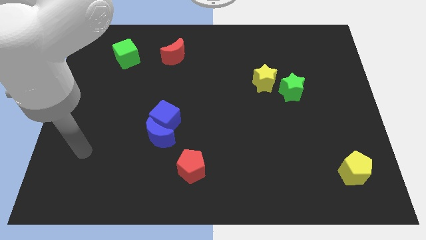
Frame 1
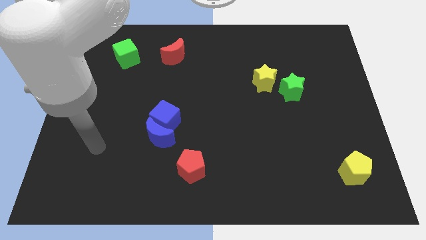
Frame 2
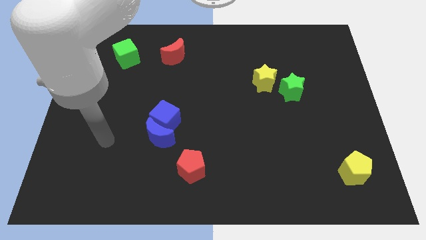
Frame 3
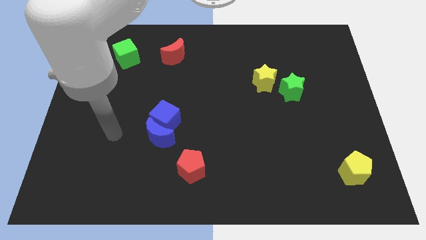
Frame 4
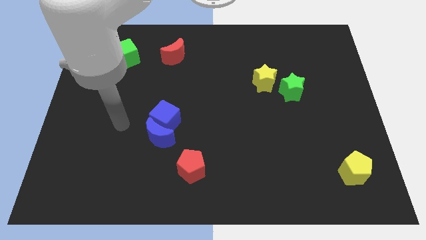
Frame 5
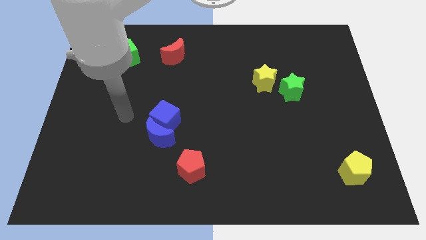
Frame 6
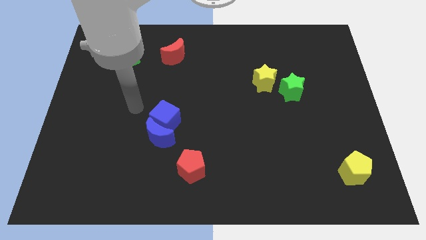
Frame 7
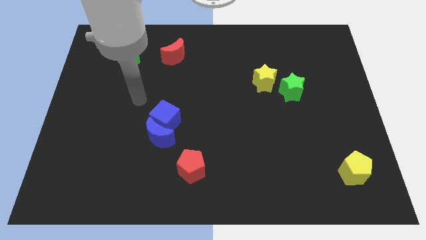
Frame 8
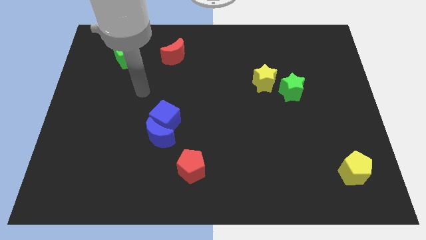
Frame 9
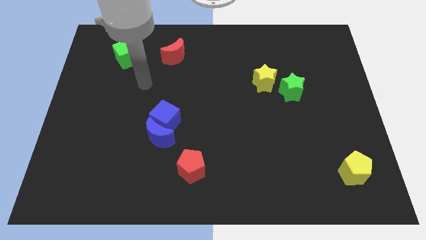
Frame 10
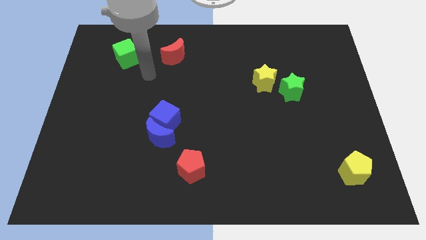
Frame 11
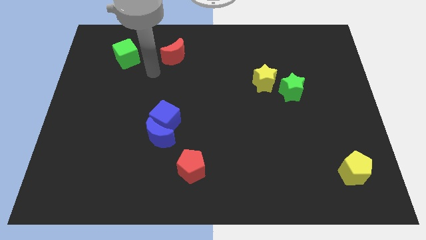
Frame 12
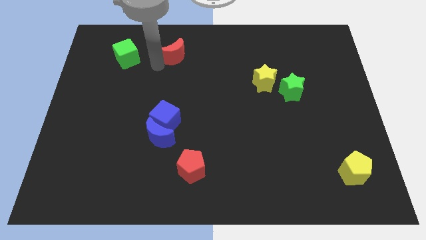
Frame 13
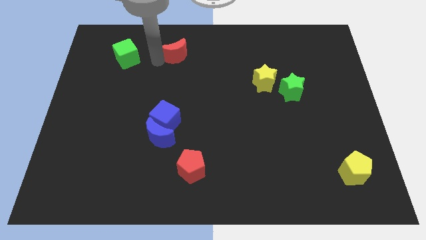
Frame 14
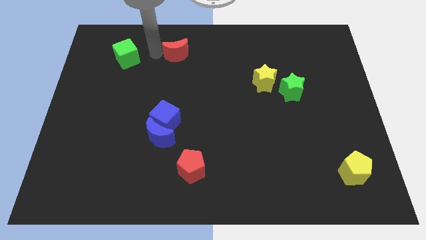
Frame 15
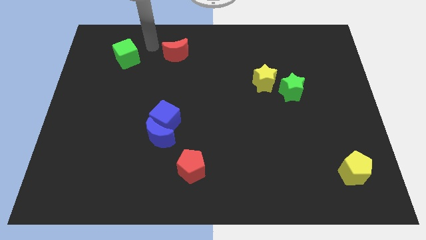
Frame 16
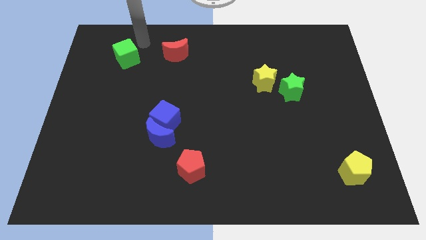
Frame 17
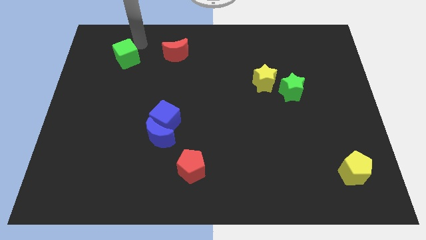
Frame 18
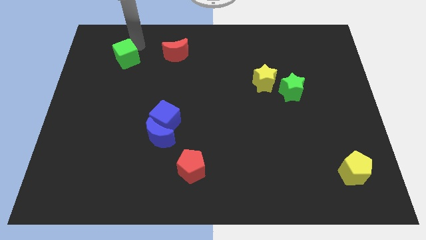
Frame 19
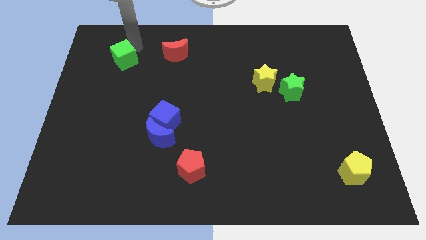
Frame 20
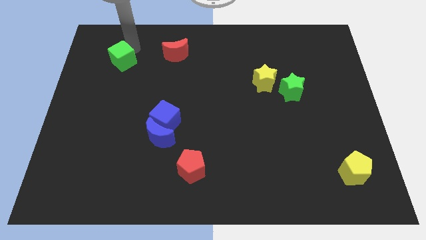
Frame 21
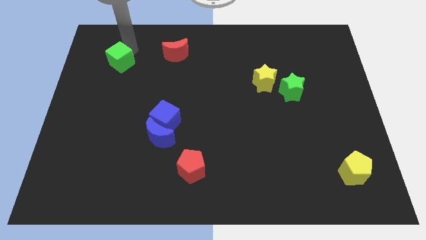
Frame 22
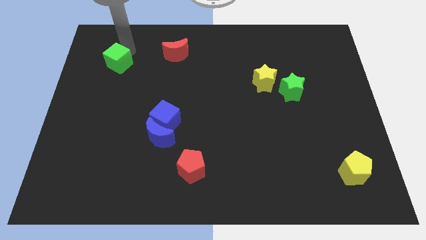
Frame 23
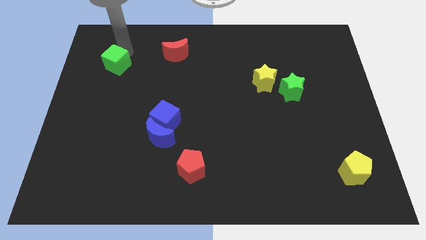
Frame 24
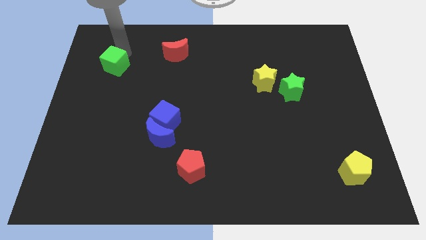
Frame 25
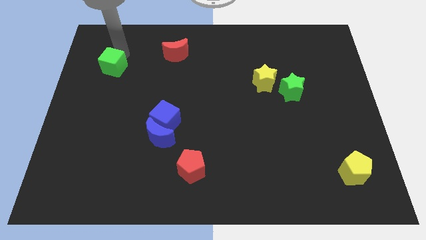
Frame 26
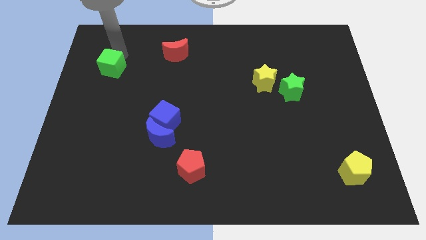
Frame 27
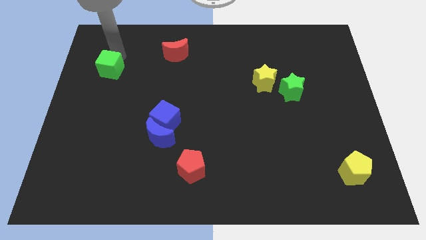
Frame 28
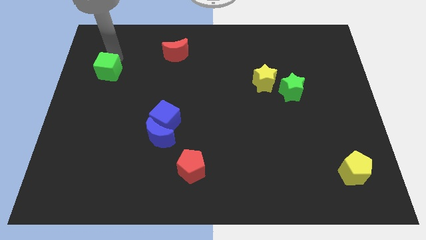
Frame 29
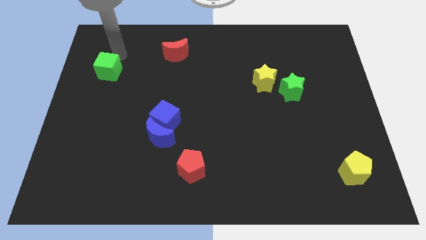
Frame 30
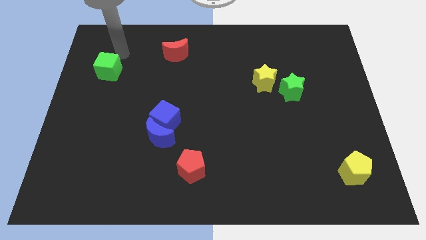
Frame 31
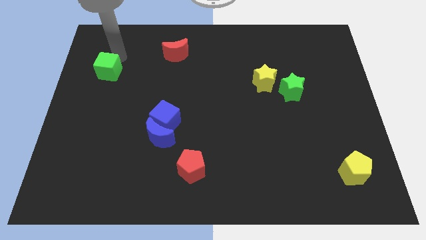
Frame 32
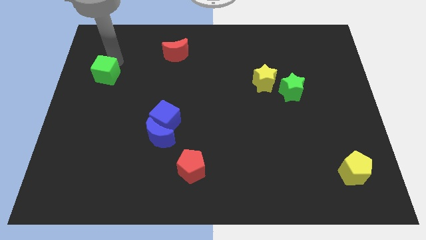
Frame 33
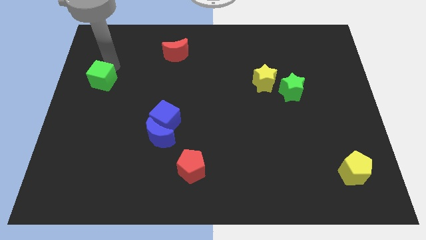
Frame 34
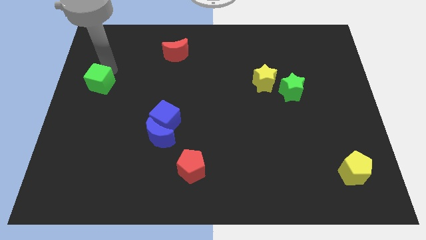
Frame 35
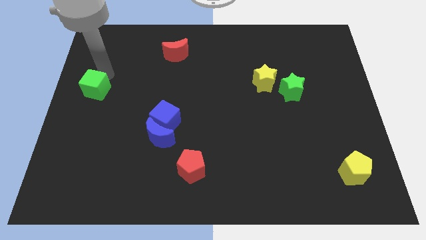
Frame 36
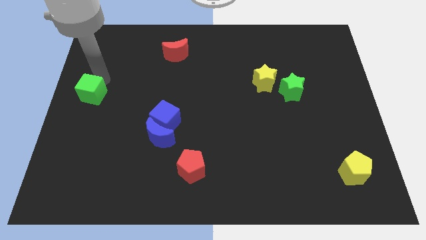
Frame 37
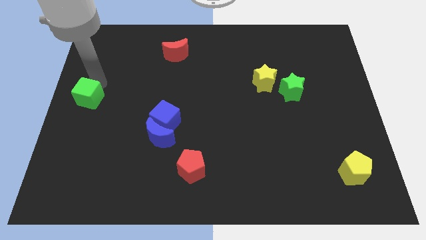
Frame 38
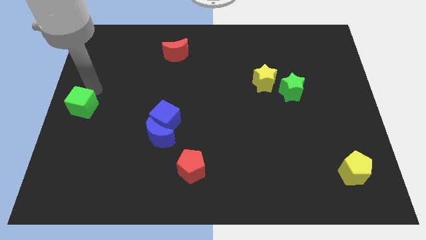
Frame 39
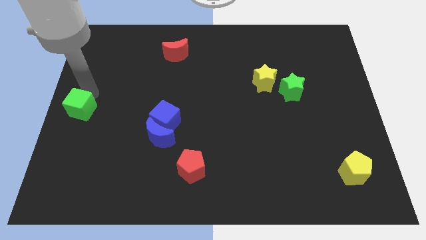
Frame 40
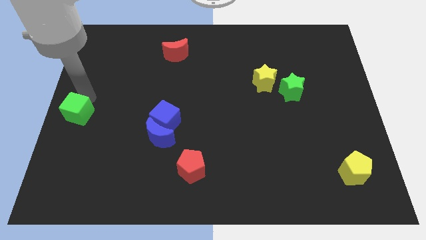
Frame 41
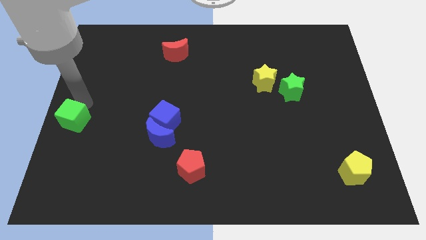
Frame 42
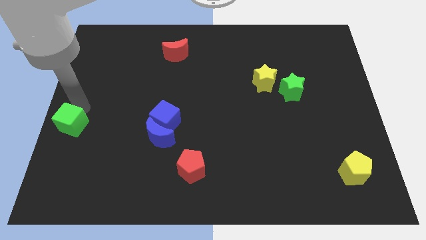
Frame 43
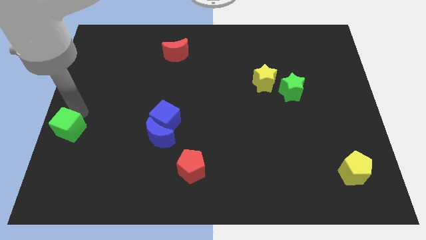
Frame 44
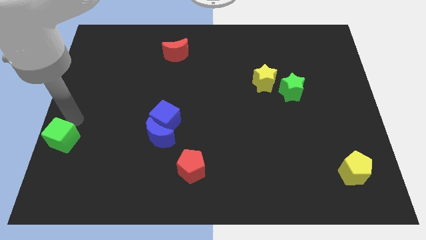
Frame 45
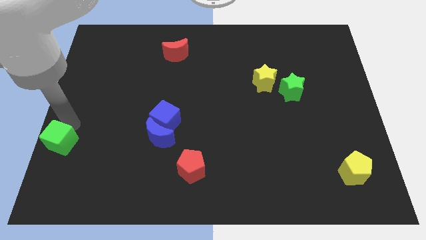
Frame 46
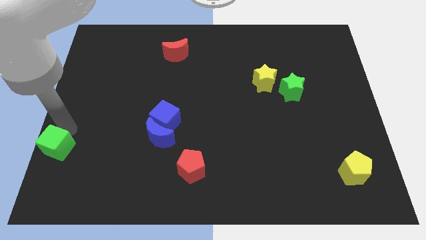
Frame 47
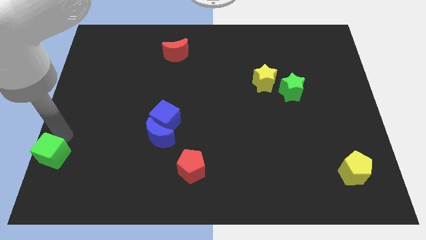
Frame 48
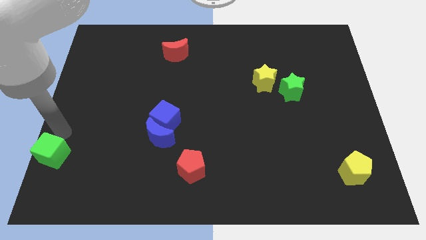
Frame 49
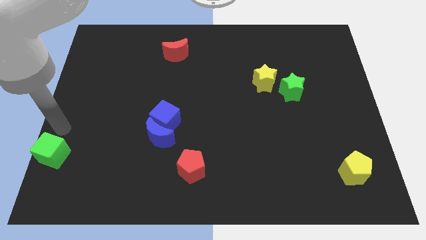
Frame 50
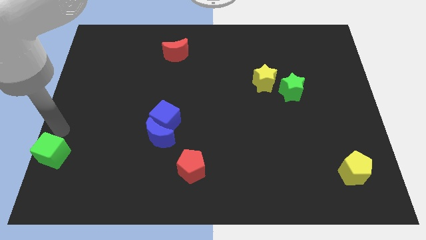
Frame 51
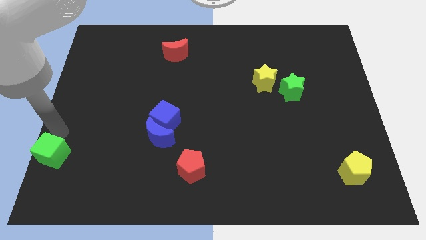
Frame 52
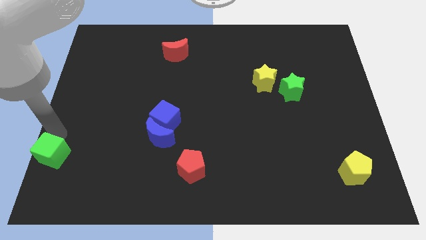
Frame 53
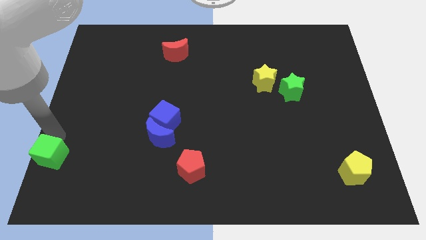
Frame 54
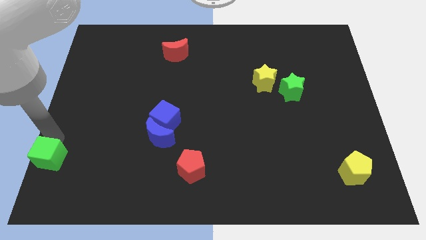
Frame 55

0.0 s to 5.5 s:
slide the green cube to the bottom left corner
